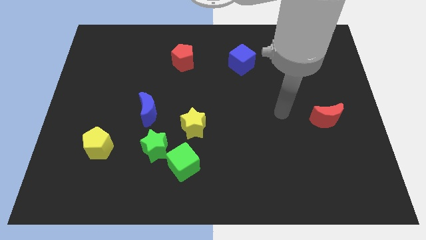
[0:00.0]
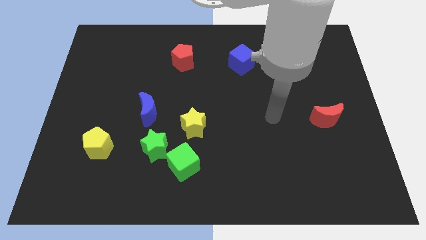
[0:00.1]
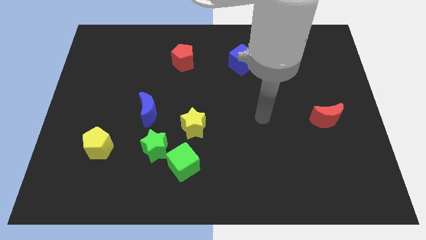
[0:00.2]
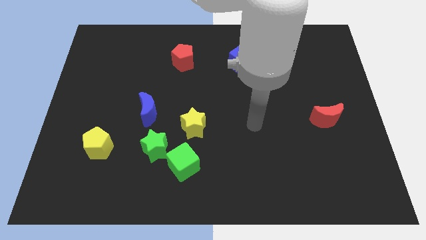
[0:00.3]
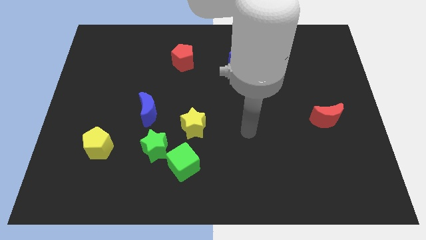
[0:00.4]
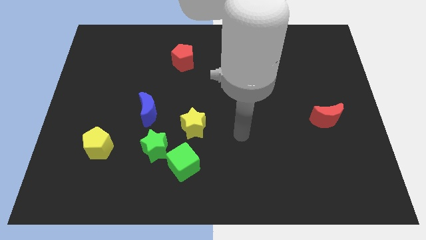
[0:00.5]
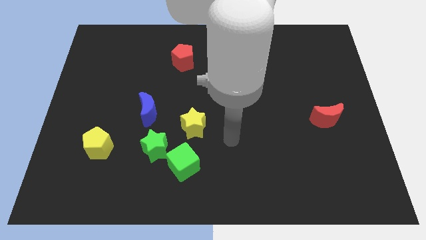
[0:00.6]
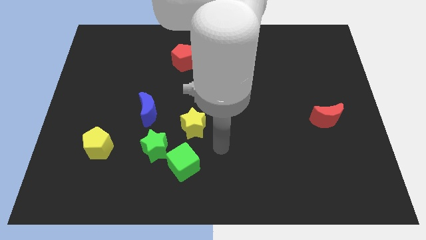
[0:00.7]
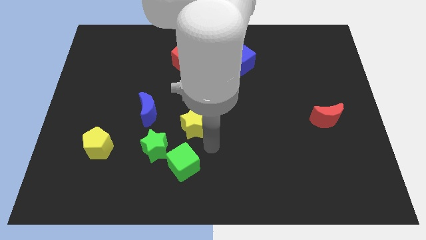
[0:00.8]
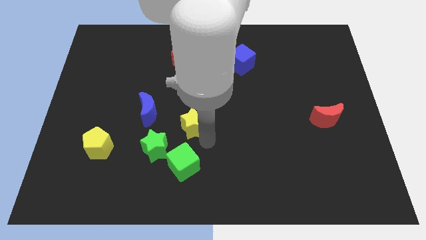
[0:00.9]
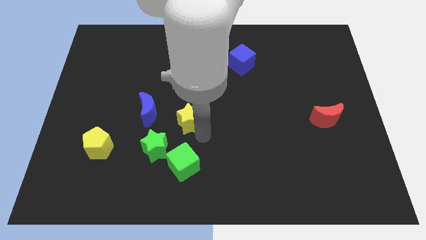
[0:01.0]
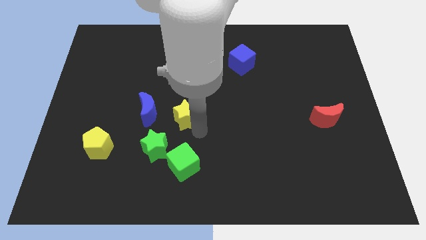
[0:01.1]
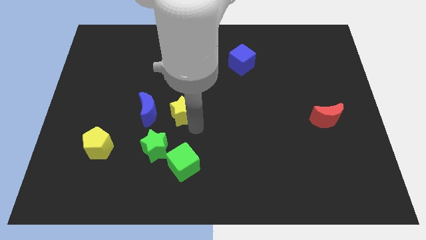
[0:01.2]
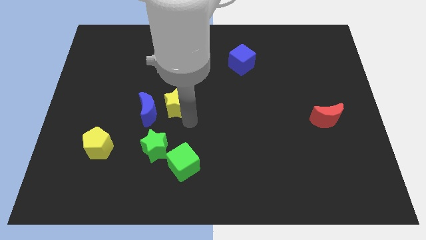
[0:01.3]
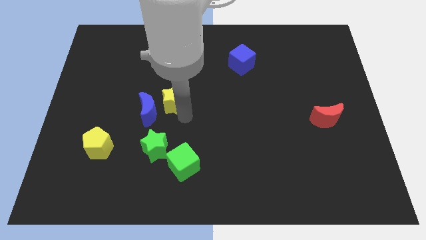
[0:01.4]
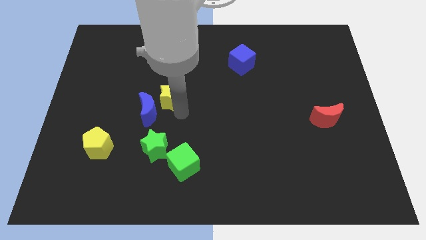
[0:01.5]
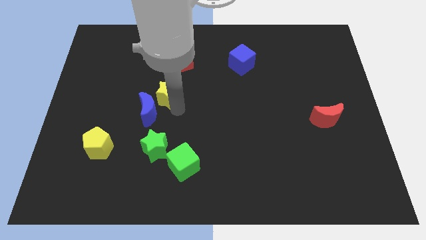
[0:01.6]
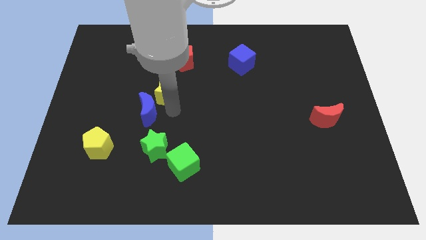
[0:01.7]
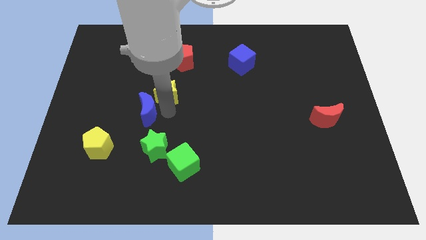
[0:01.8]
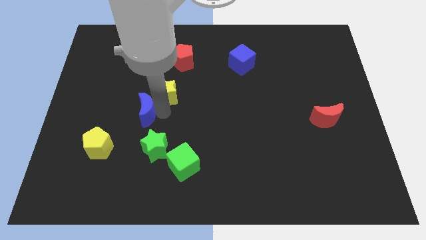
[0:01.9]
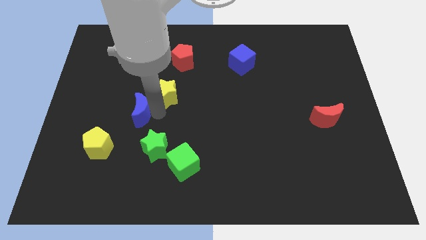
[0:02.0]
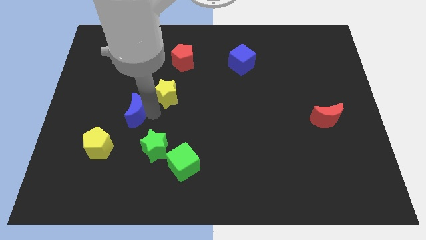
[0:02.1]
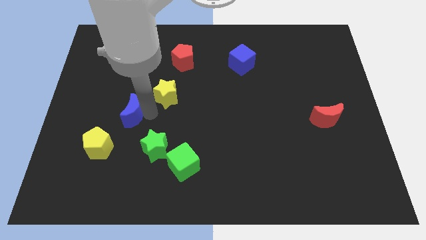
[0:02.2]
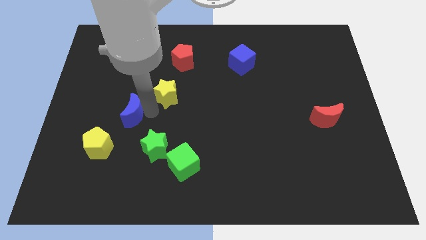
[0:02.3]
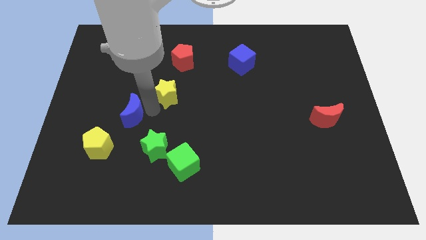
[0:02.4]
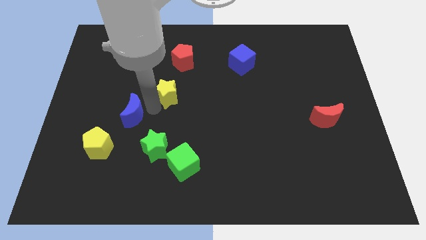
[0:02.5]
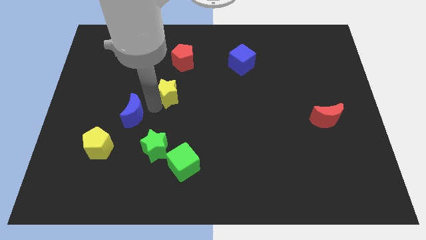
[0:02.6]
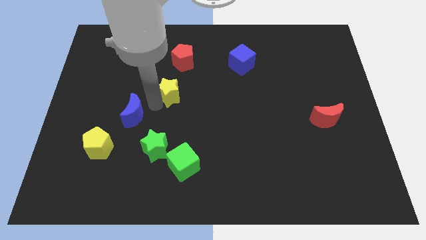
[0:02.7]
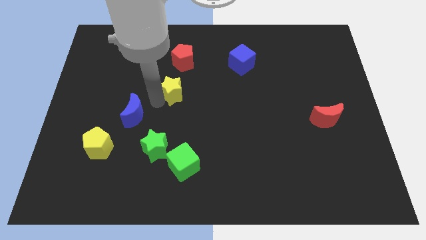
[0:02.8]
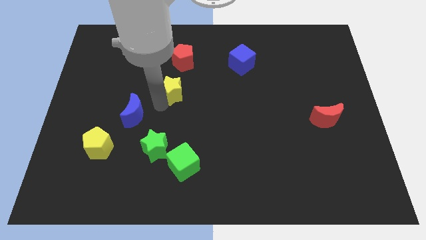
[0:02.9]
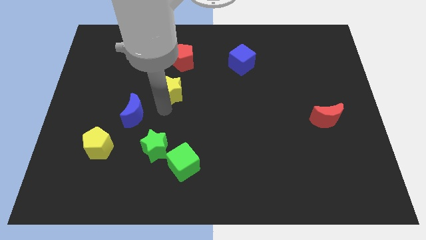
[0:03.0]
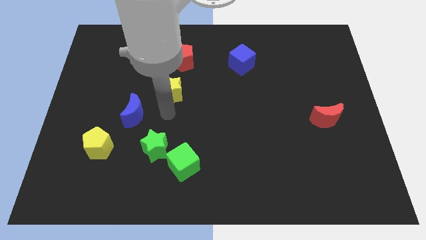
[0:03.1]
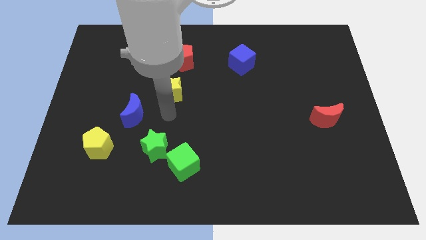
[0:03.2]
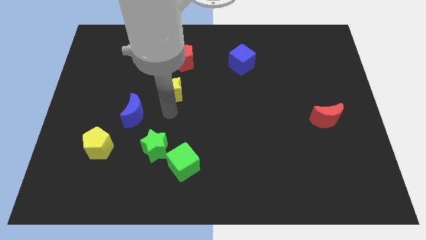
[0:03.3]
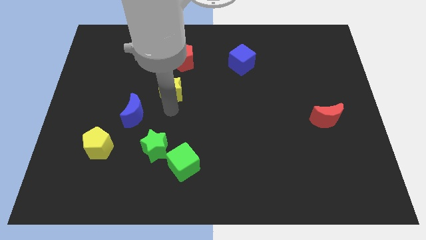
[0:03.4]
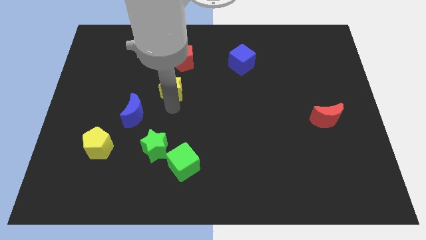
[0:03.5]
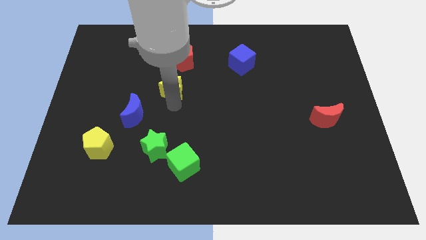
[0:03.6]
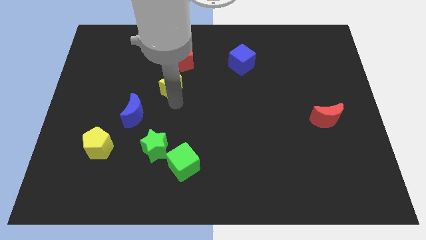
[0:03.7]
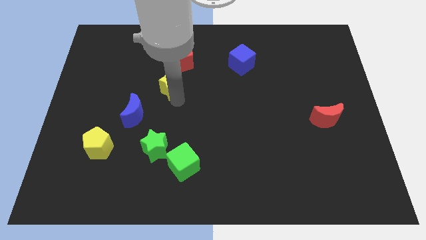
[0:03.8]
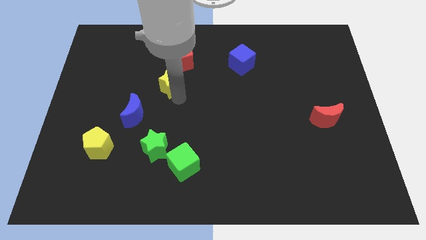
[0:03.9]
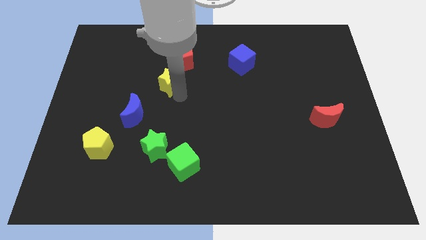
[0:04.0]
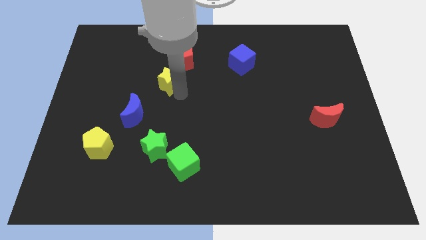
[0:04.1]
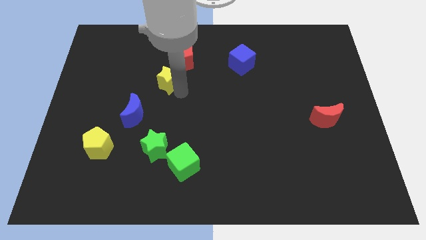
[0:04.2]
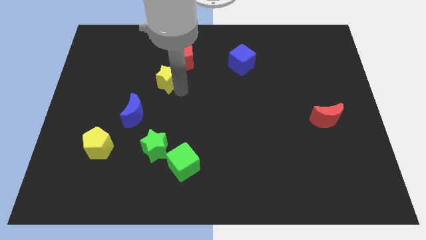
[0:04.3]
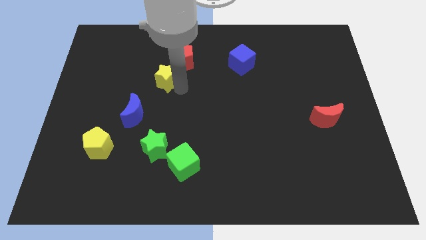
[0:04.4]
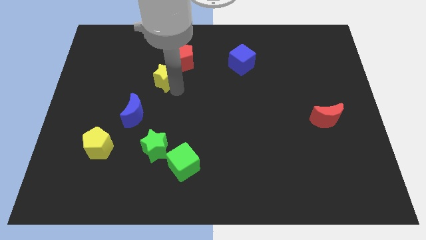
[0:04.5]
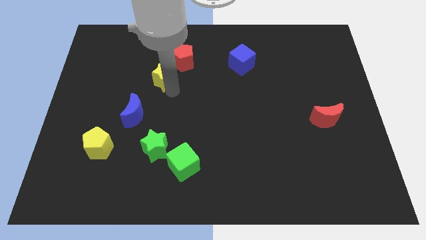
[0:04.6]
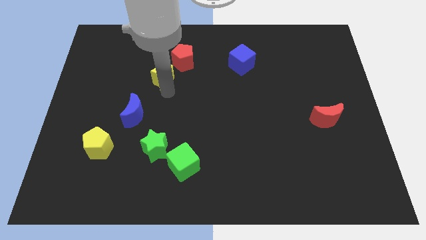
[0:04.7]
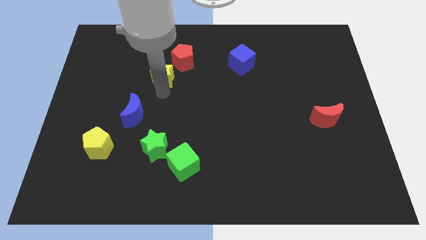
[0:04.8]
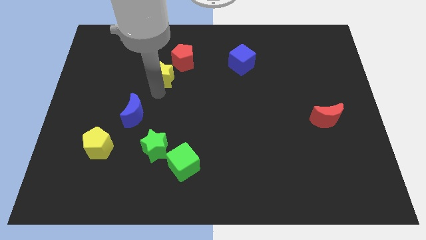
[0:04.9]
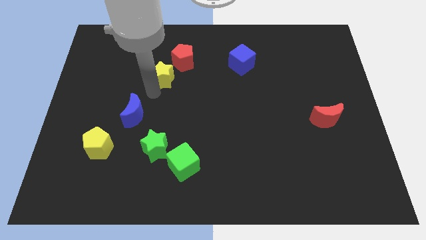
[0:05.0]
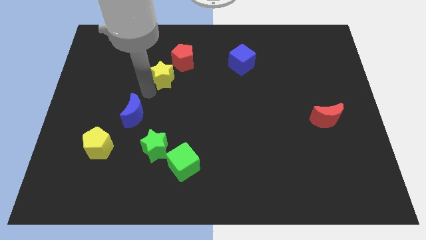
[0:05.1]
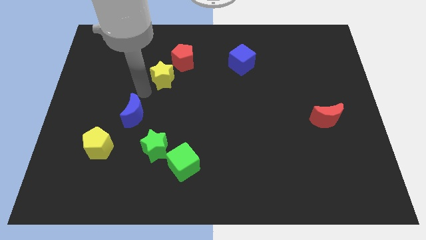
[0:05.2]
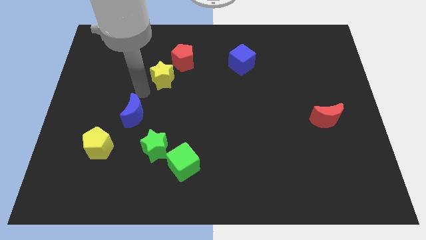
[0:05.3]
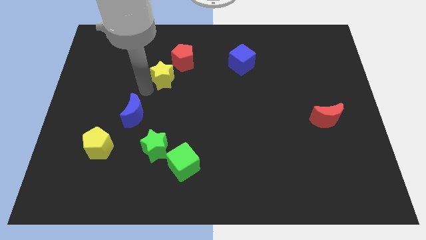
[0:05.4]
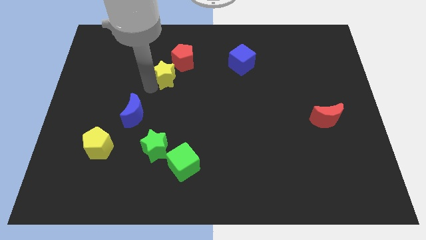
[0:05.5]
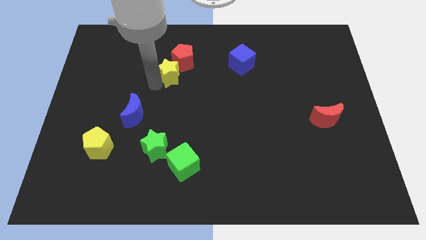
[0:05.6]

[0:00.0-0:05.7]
put the yellow star next to the red pentagon

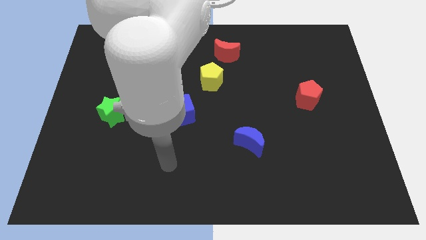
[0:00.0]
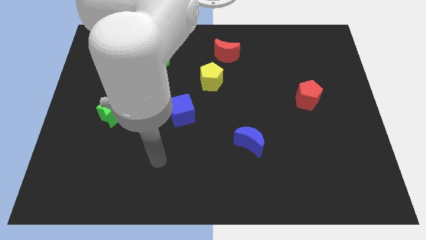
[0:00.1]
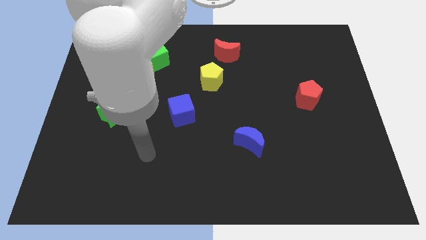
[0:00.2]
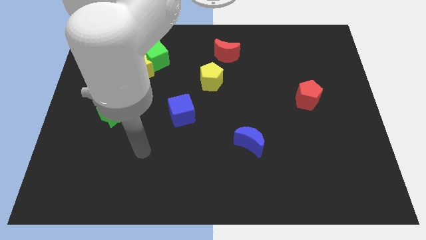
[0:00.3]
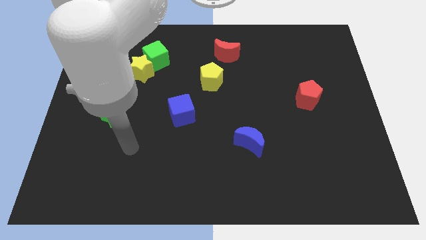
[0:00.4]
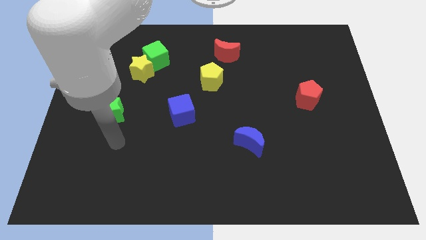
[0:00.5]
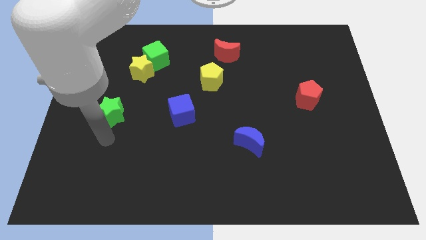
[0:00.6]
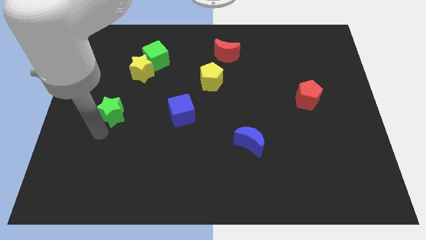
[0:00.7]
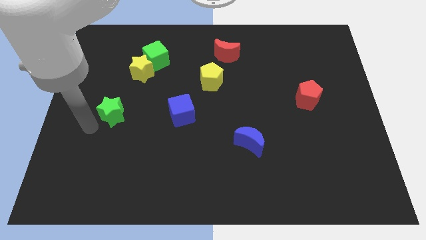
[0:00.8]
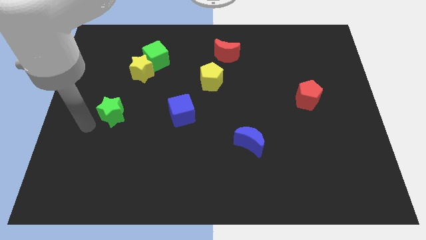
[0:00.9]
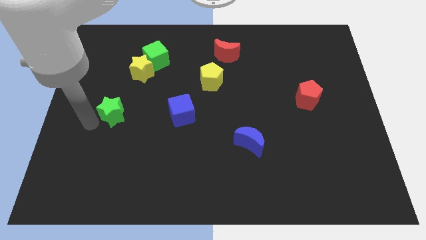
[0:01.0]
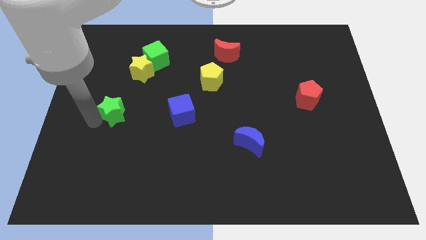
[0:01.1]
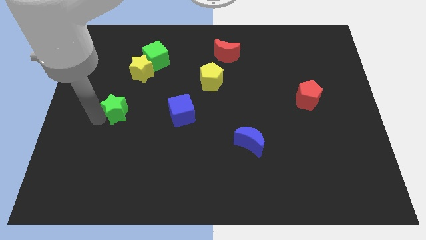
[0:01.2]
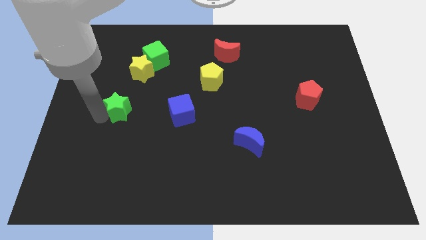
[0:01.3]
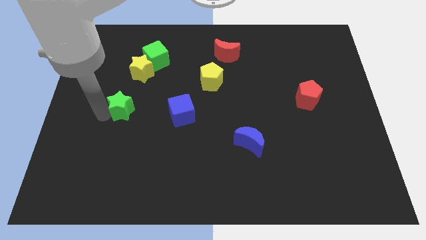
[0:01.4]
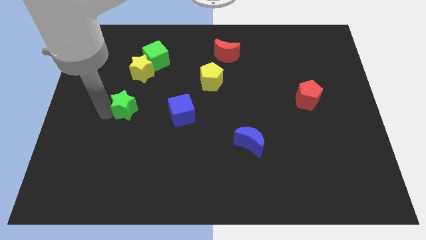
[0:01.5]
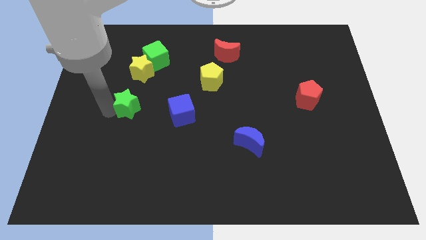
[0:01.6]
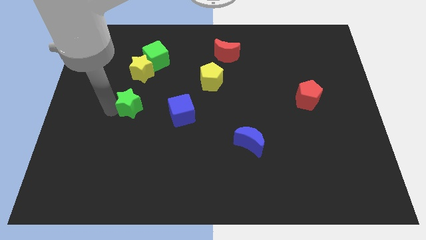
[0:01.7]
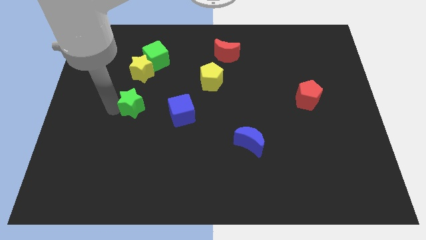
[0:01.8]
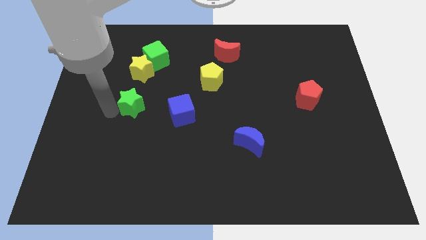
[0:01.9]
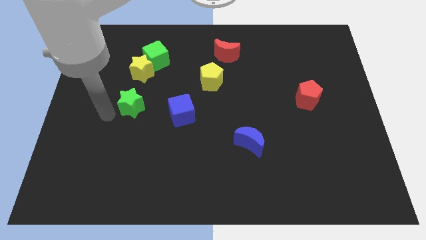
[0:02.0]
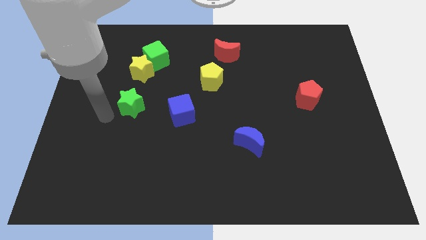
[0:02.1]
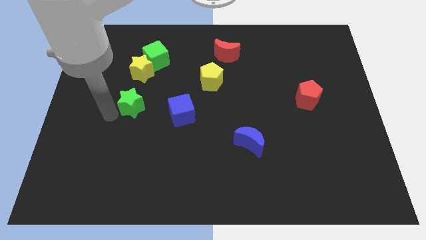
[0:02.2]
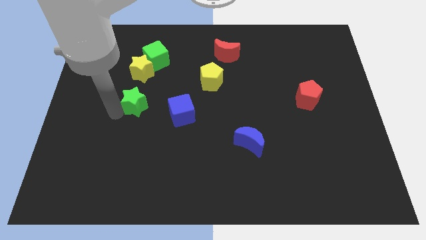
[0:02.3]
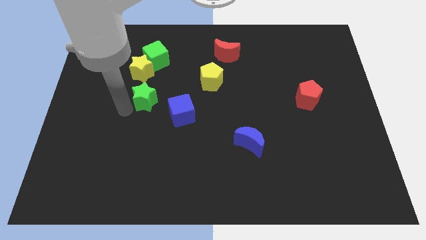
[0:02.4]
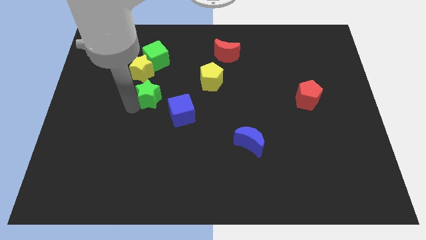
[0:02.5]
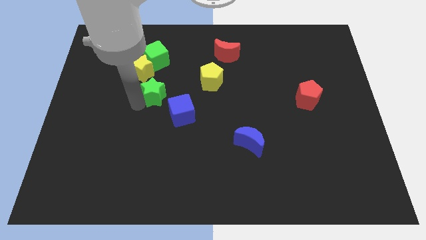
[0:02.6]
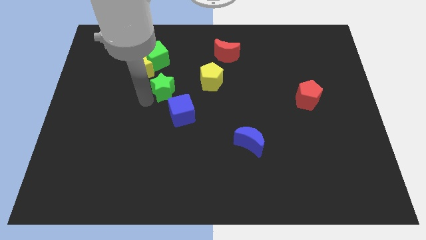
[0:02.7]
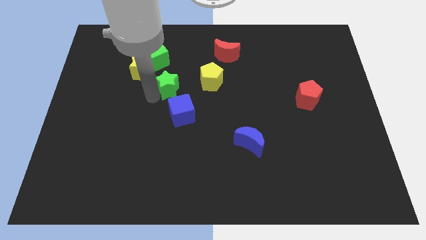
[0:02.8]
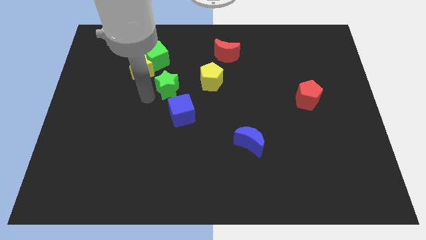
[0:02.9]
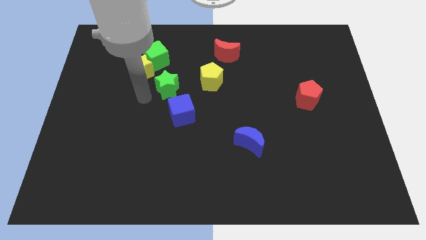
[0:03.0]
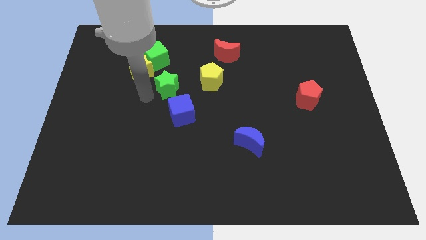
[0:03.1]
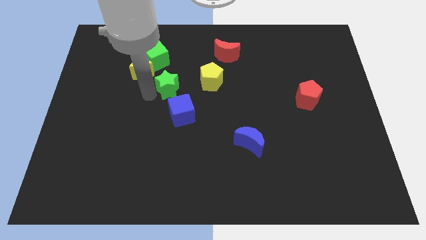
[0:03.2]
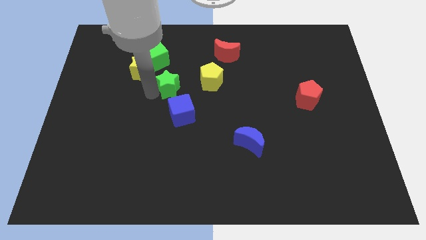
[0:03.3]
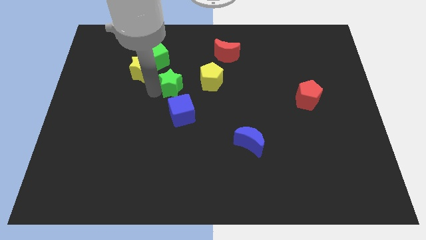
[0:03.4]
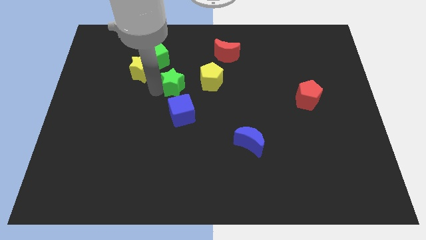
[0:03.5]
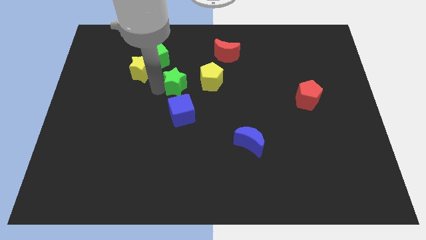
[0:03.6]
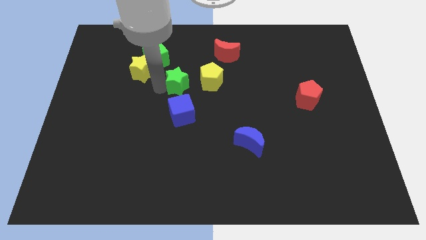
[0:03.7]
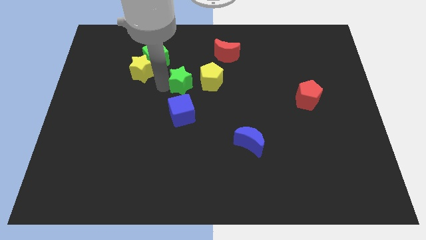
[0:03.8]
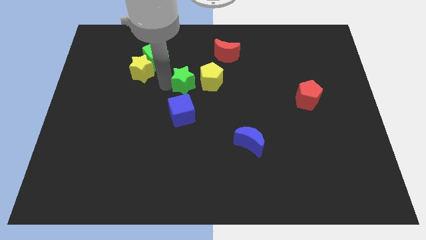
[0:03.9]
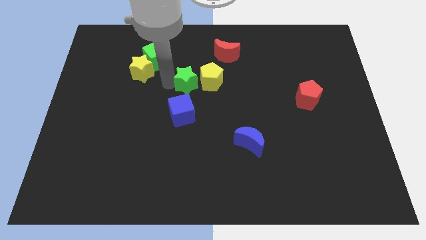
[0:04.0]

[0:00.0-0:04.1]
slide the green star towards the yellow pentagon
